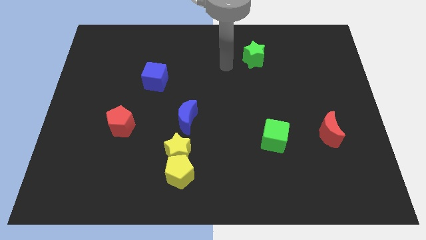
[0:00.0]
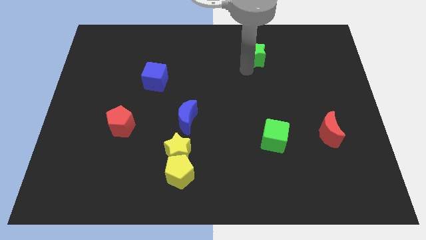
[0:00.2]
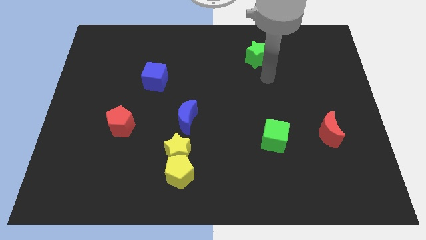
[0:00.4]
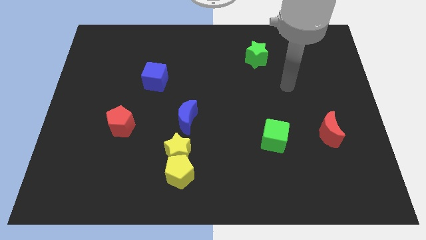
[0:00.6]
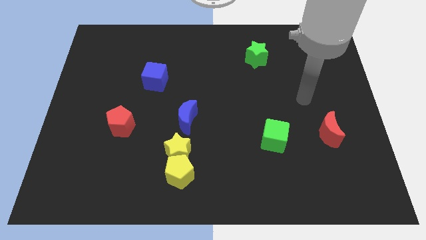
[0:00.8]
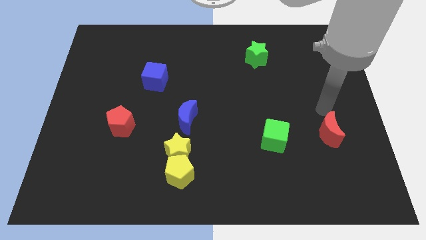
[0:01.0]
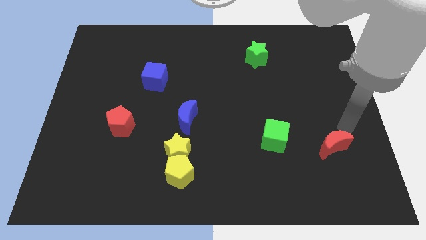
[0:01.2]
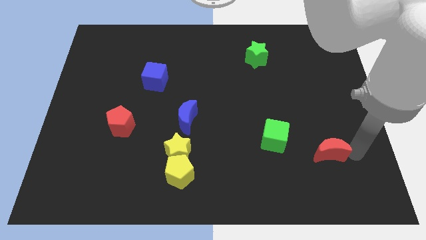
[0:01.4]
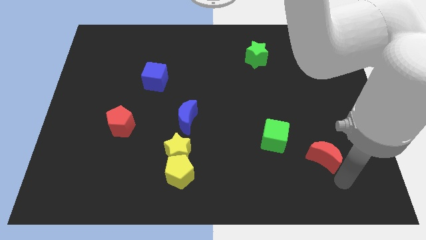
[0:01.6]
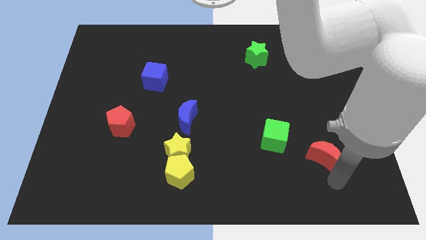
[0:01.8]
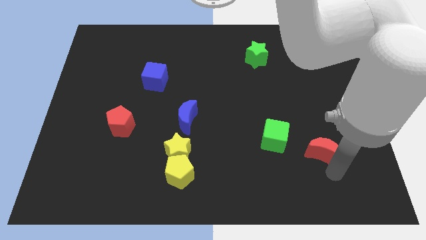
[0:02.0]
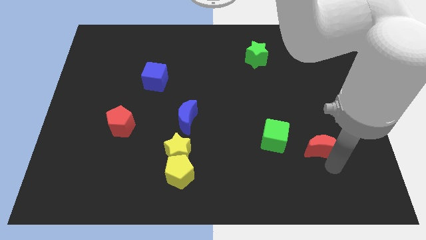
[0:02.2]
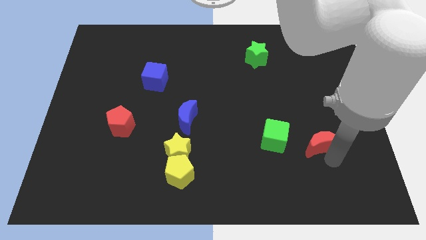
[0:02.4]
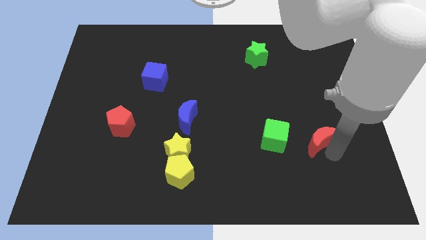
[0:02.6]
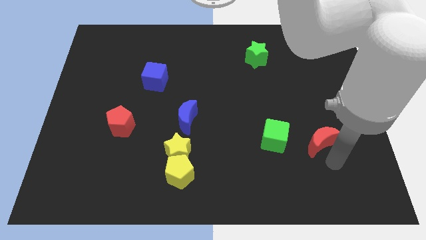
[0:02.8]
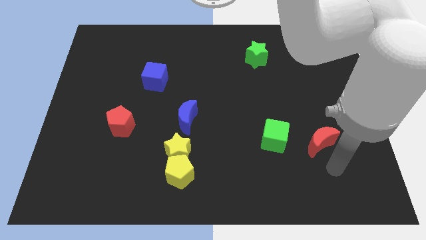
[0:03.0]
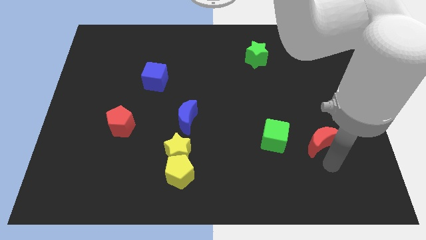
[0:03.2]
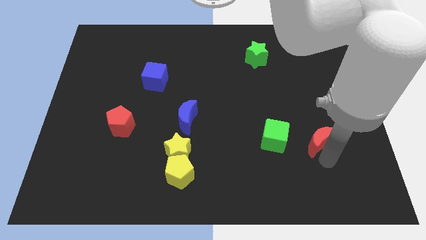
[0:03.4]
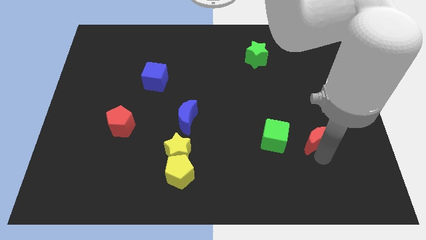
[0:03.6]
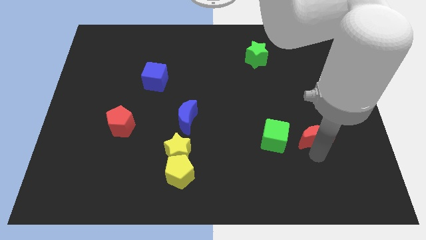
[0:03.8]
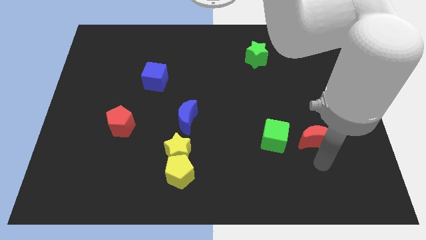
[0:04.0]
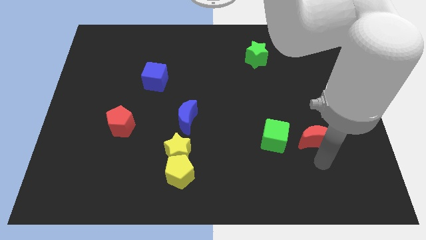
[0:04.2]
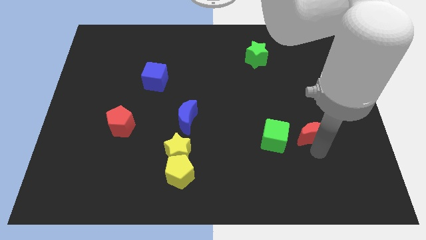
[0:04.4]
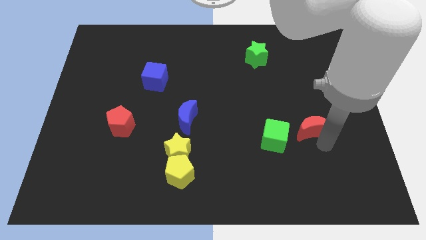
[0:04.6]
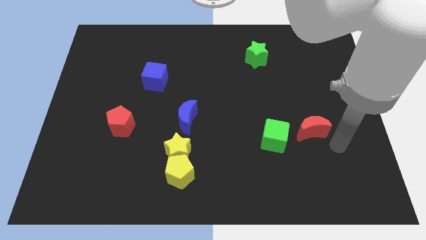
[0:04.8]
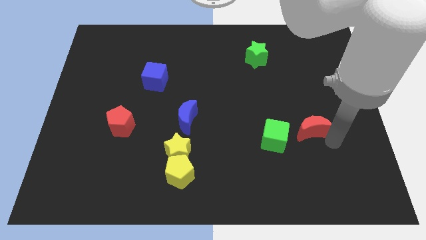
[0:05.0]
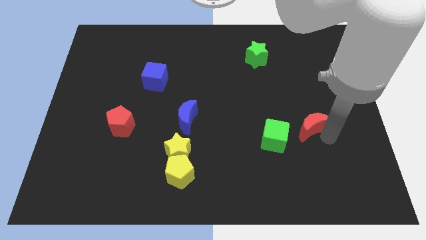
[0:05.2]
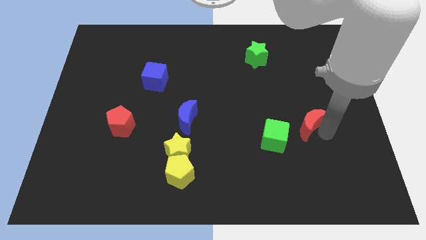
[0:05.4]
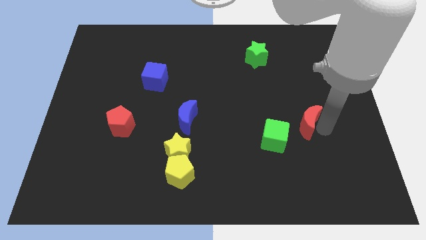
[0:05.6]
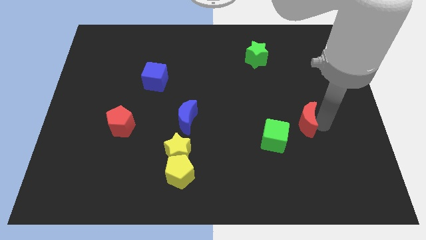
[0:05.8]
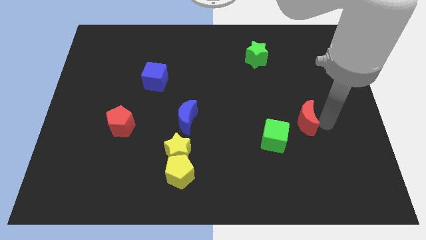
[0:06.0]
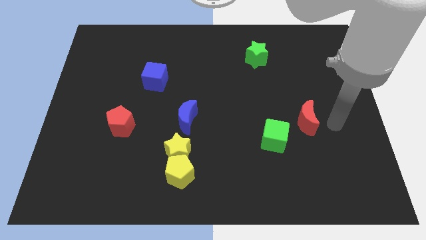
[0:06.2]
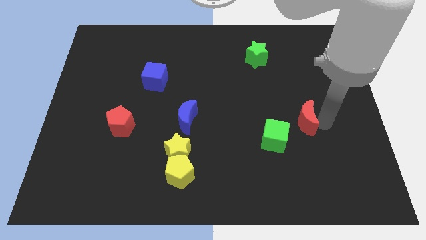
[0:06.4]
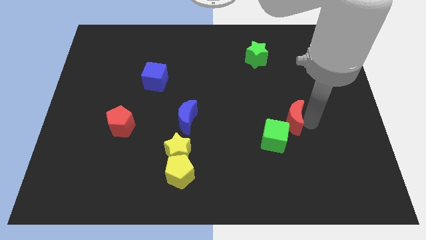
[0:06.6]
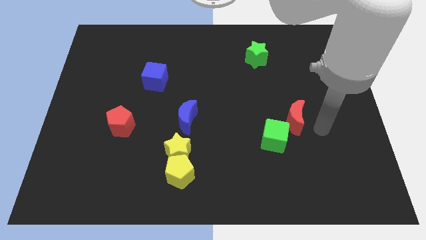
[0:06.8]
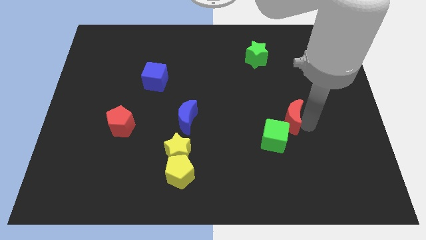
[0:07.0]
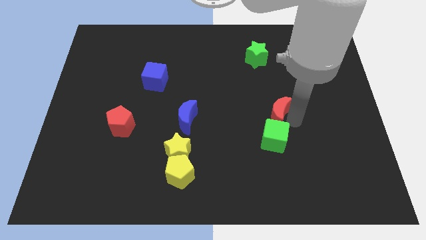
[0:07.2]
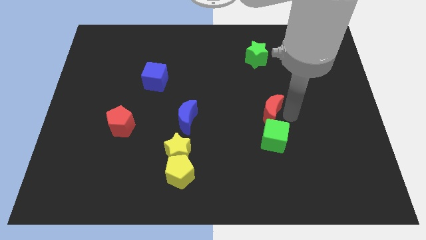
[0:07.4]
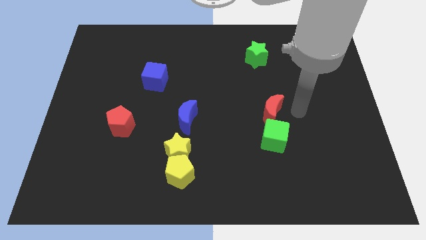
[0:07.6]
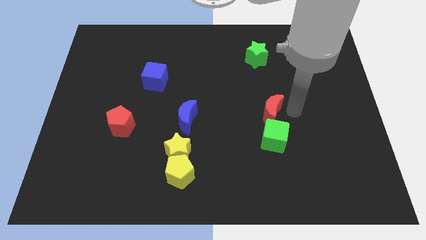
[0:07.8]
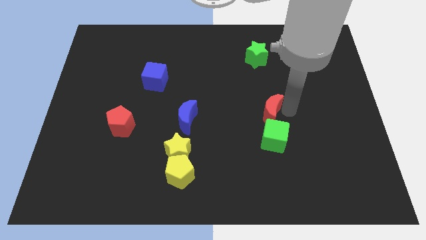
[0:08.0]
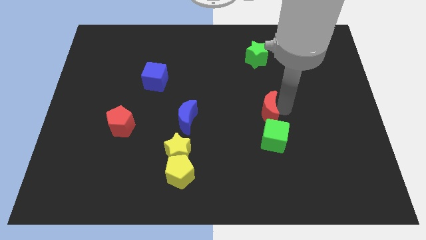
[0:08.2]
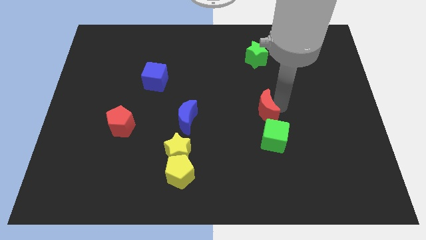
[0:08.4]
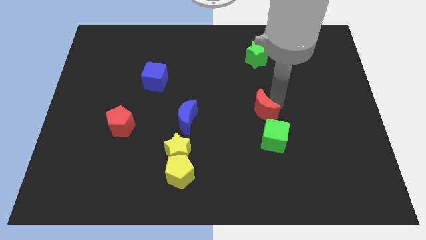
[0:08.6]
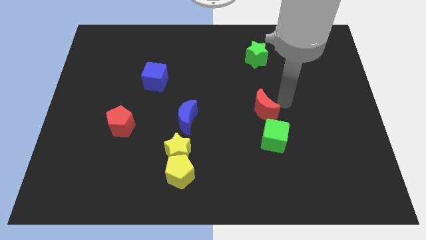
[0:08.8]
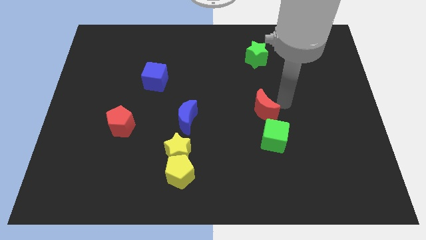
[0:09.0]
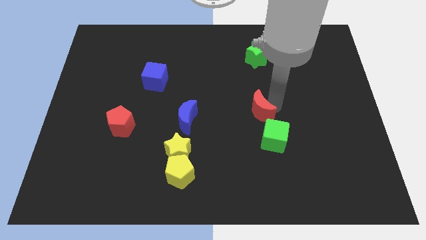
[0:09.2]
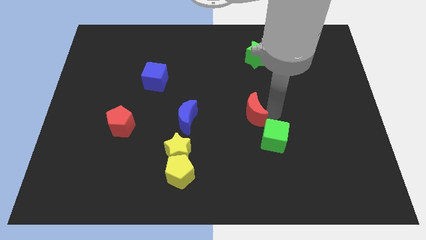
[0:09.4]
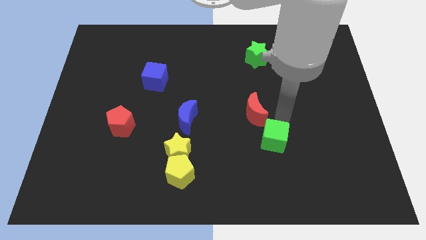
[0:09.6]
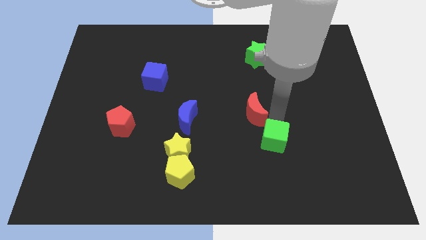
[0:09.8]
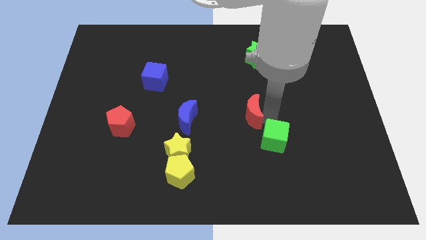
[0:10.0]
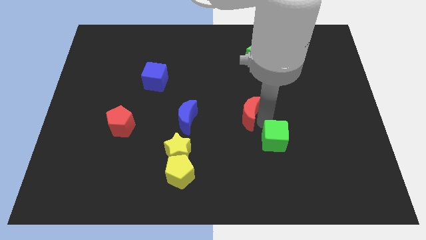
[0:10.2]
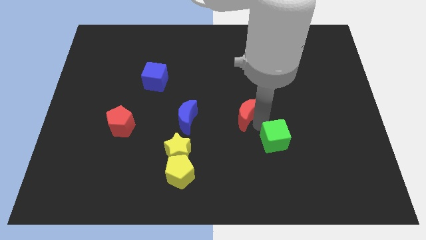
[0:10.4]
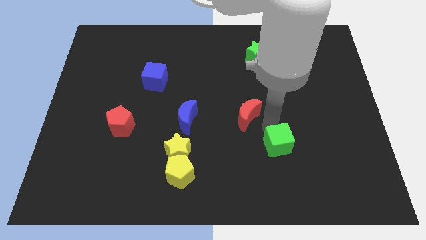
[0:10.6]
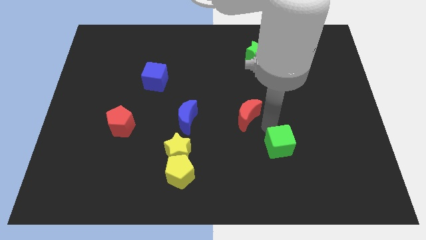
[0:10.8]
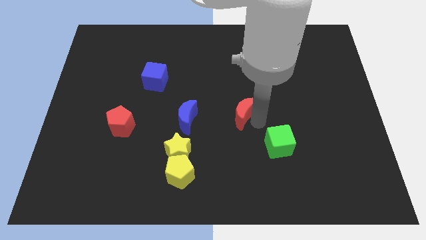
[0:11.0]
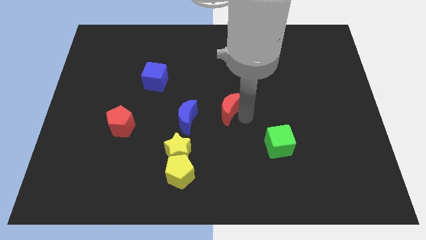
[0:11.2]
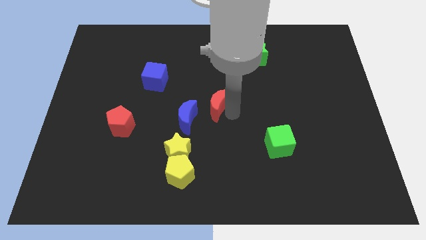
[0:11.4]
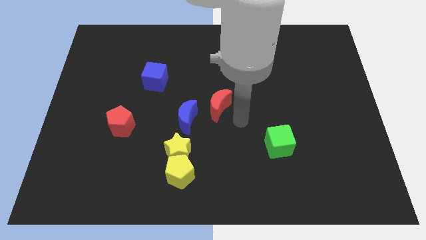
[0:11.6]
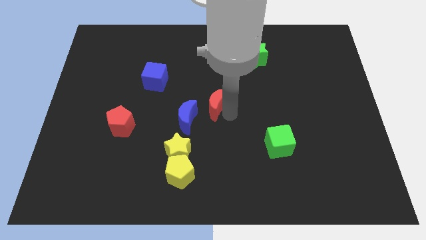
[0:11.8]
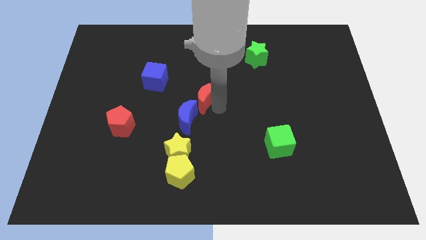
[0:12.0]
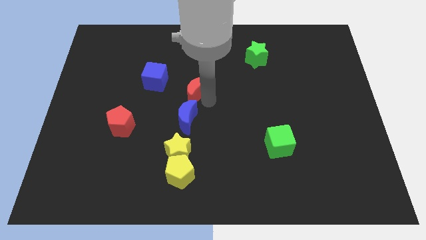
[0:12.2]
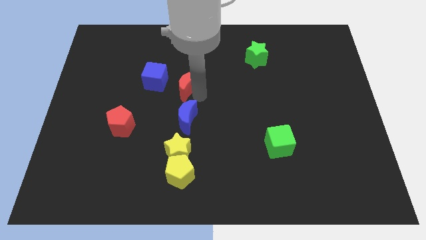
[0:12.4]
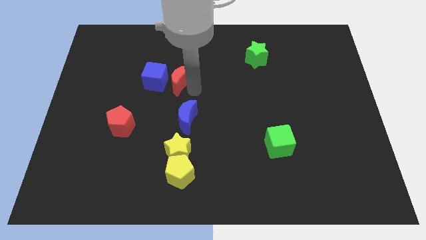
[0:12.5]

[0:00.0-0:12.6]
slide the red moon next to the blue cube
